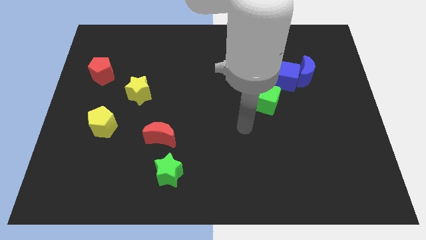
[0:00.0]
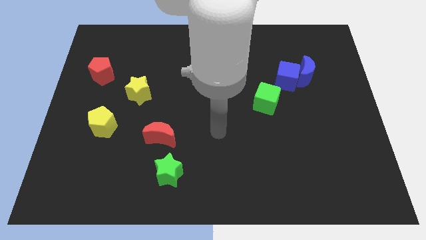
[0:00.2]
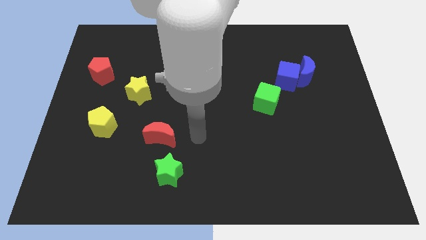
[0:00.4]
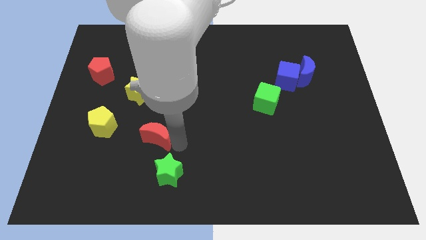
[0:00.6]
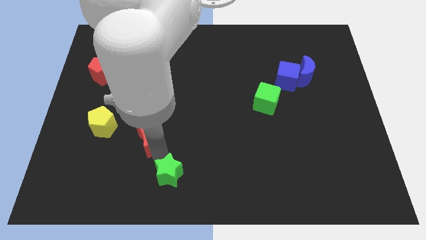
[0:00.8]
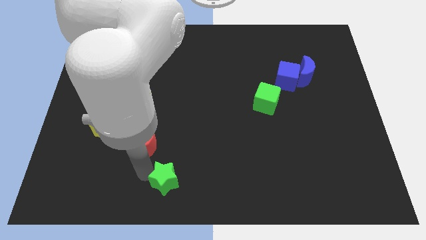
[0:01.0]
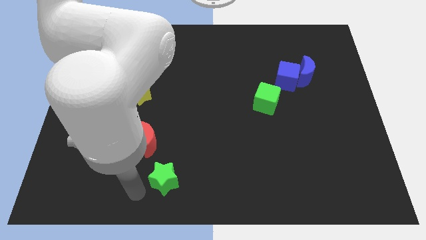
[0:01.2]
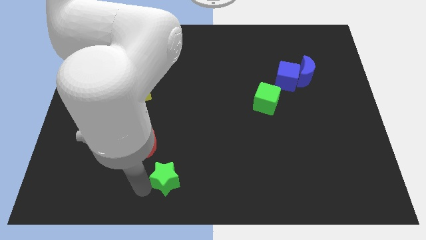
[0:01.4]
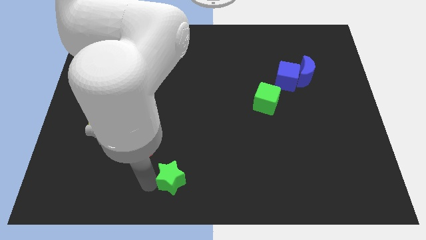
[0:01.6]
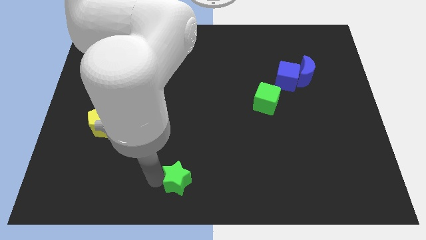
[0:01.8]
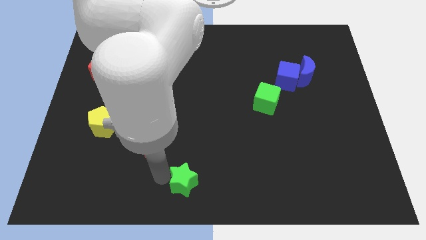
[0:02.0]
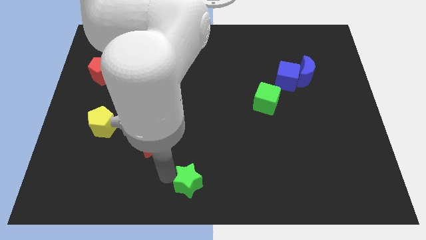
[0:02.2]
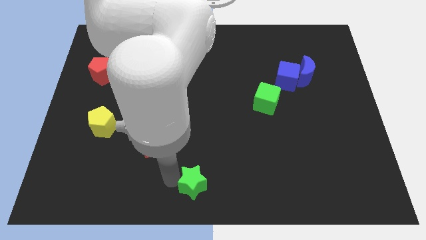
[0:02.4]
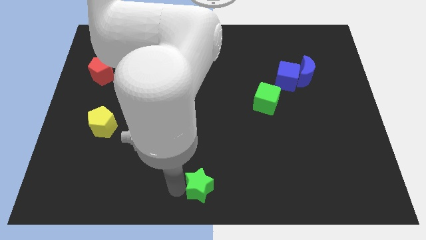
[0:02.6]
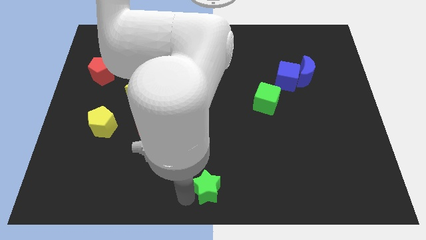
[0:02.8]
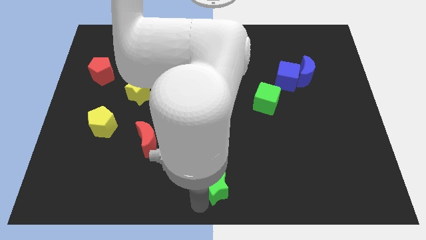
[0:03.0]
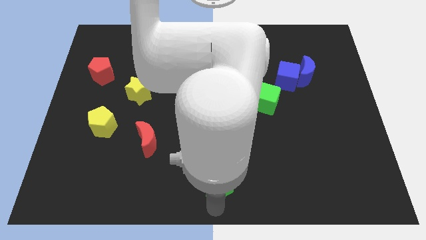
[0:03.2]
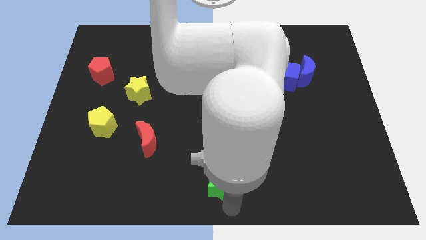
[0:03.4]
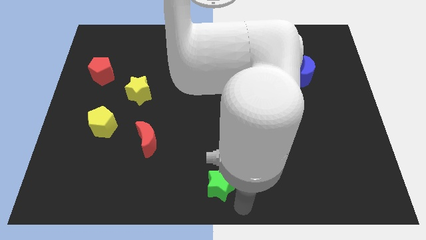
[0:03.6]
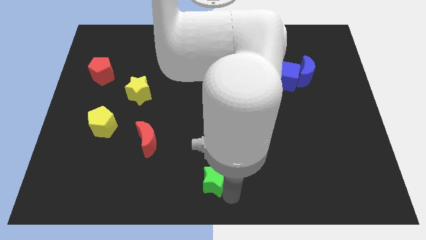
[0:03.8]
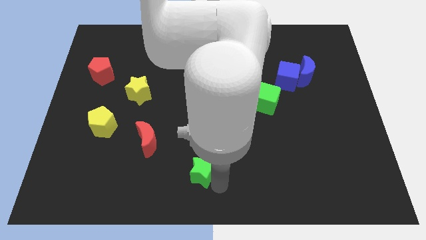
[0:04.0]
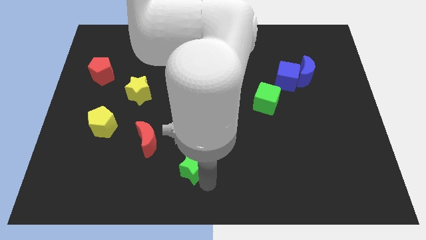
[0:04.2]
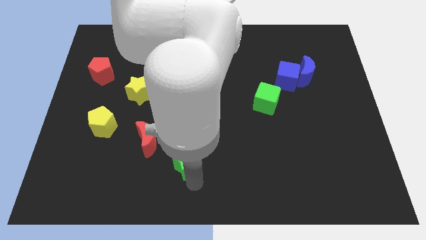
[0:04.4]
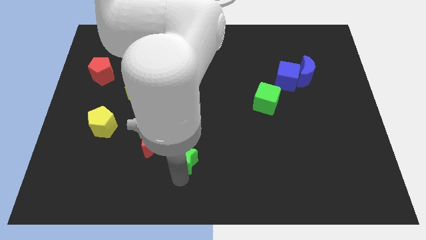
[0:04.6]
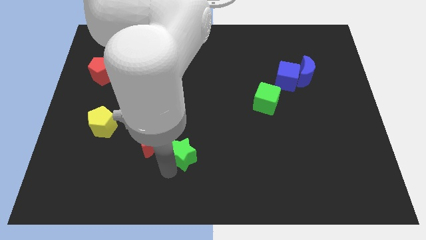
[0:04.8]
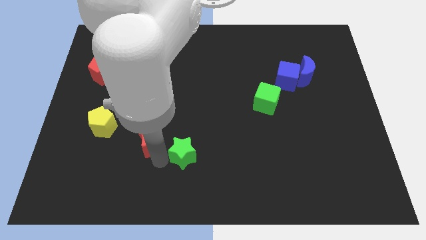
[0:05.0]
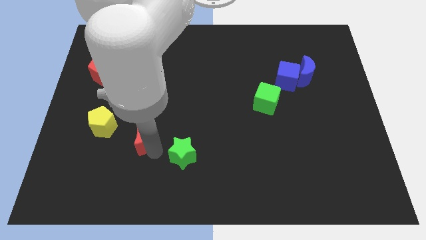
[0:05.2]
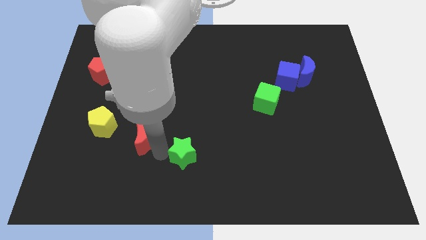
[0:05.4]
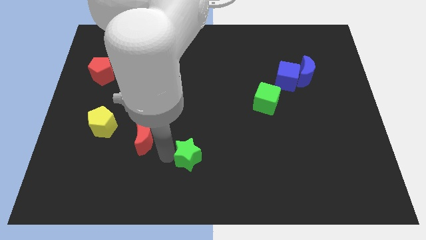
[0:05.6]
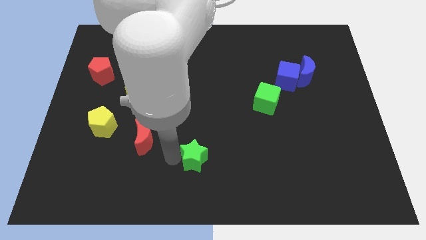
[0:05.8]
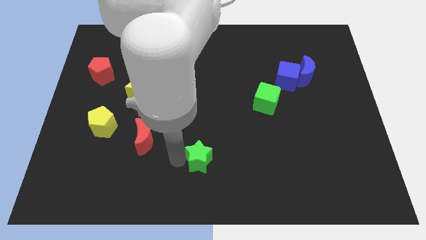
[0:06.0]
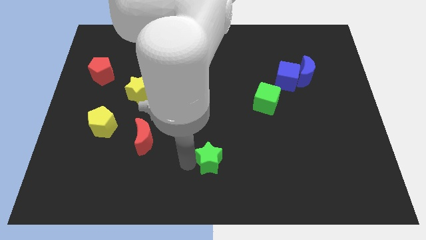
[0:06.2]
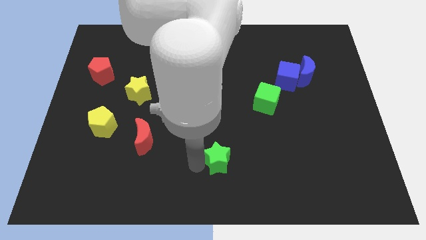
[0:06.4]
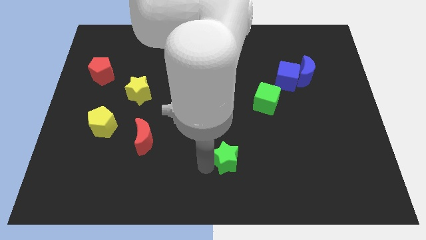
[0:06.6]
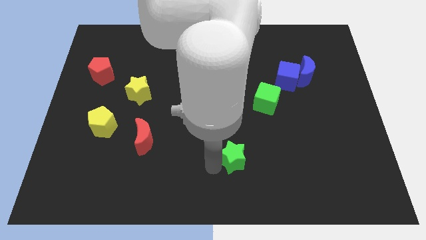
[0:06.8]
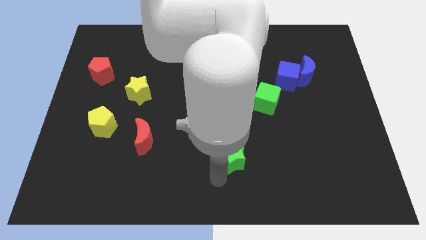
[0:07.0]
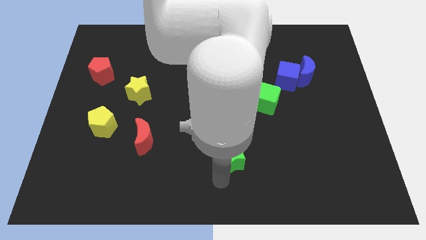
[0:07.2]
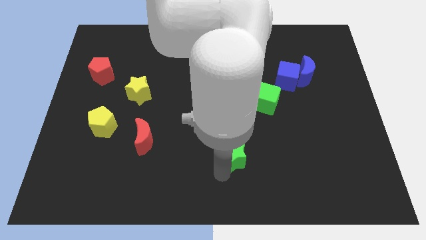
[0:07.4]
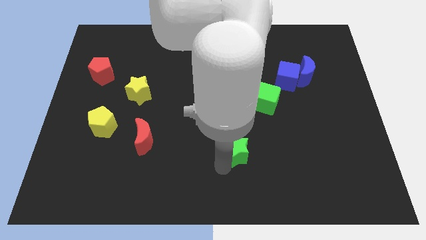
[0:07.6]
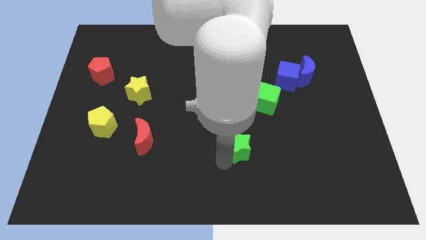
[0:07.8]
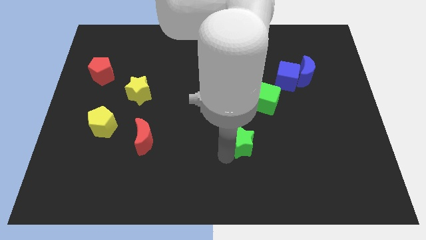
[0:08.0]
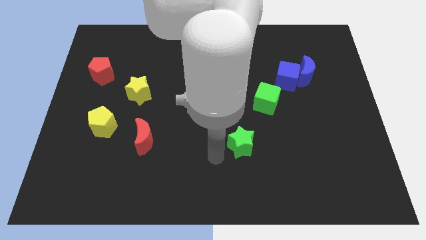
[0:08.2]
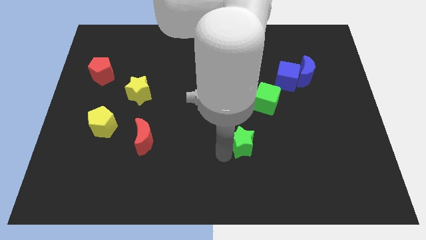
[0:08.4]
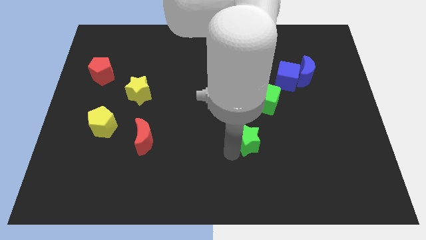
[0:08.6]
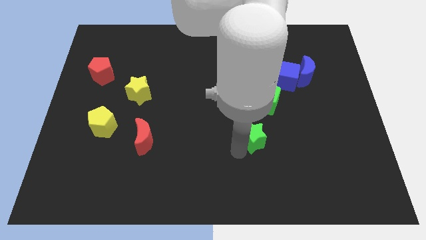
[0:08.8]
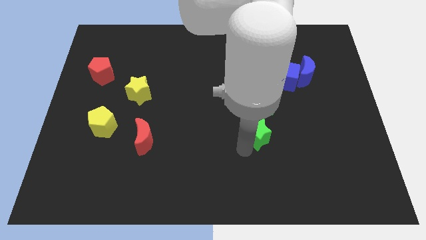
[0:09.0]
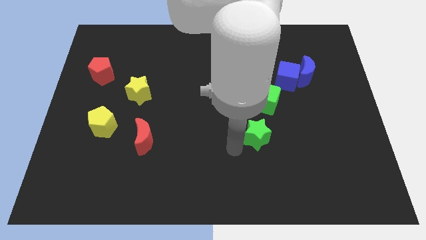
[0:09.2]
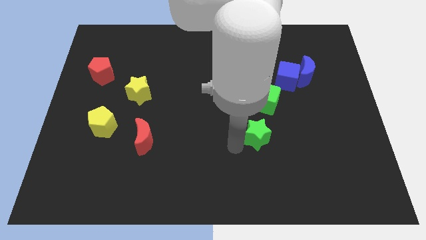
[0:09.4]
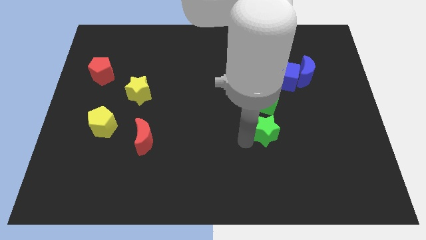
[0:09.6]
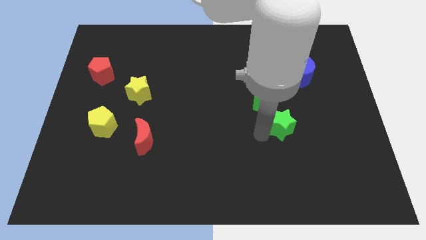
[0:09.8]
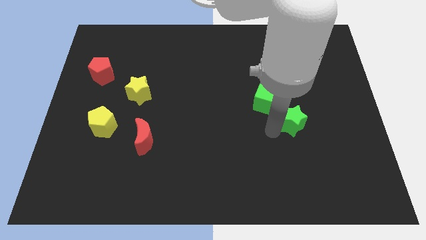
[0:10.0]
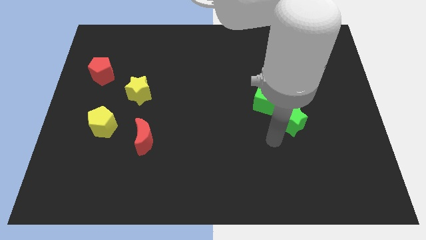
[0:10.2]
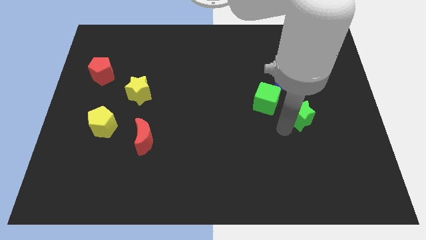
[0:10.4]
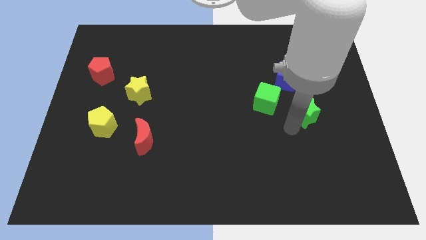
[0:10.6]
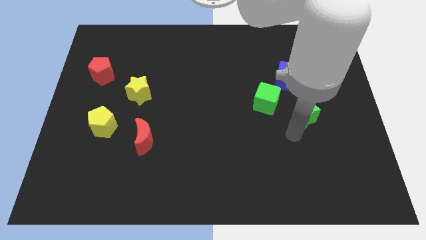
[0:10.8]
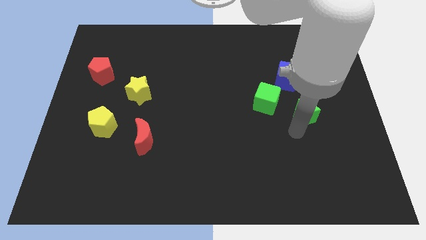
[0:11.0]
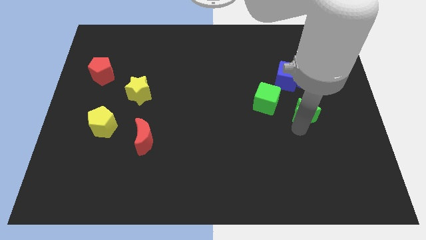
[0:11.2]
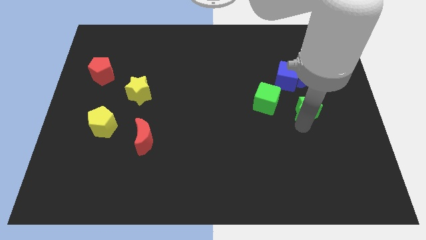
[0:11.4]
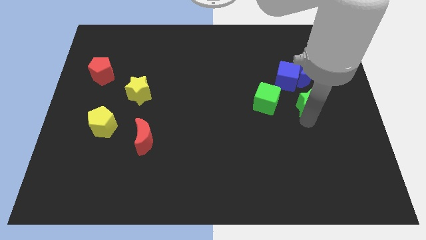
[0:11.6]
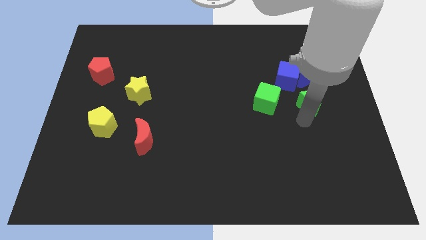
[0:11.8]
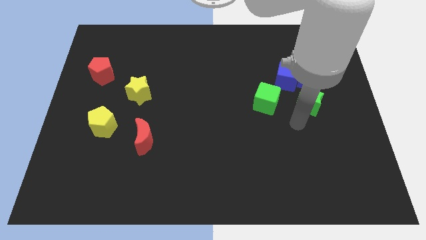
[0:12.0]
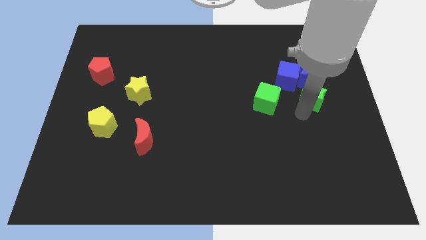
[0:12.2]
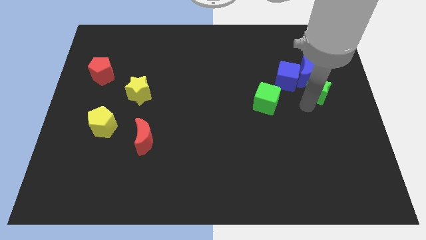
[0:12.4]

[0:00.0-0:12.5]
move the green star next to the blue moon
